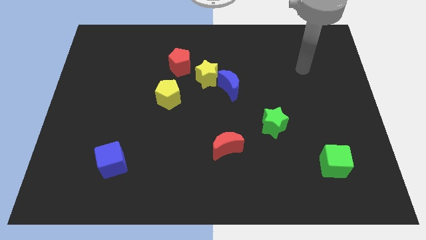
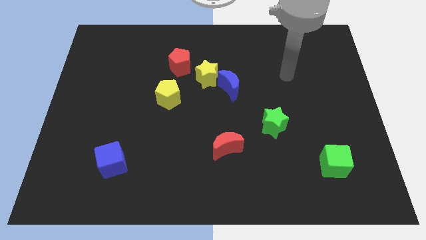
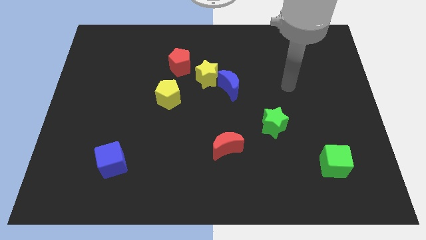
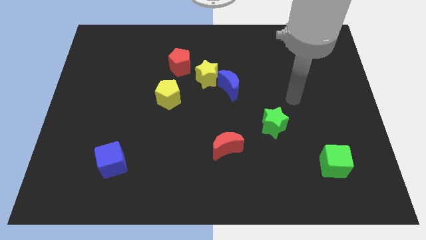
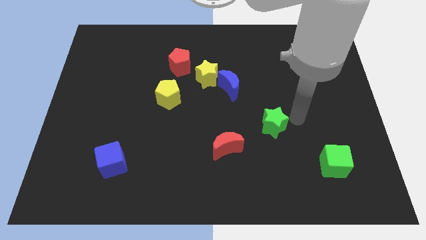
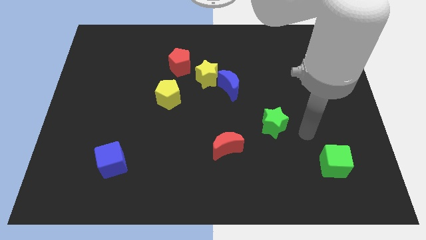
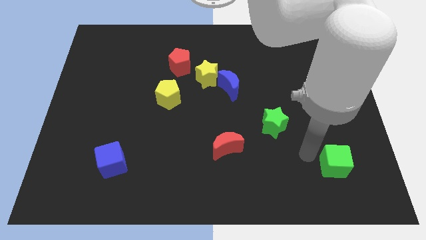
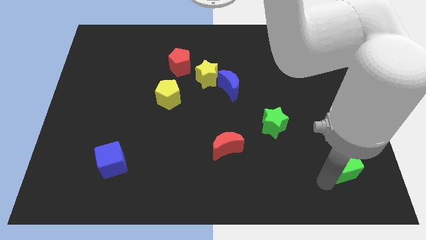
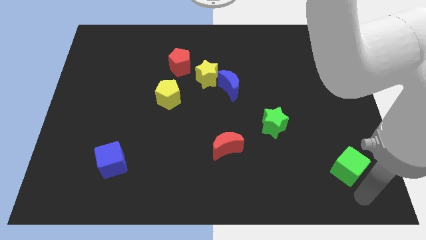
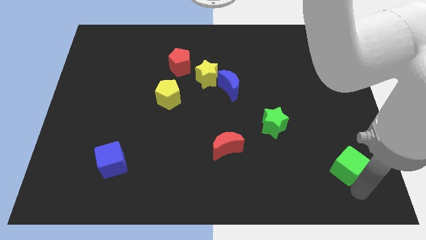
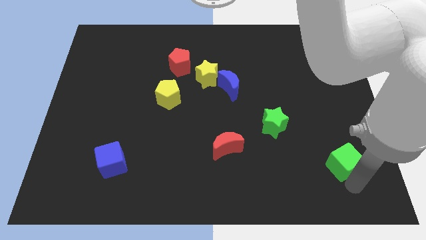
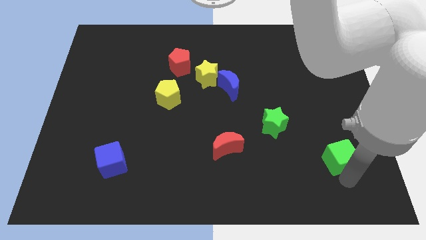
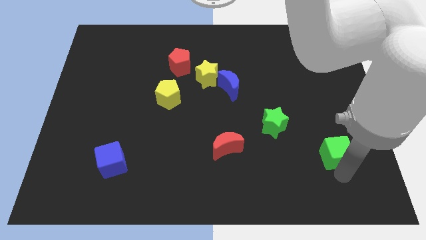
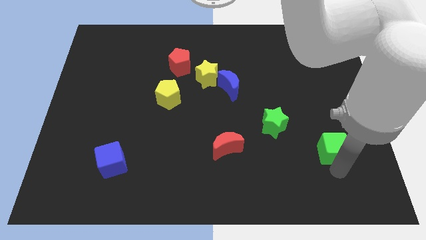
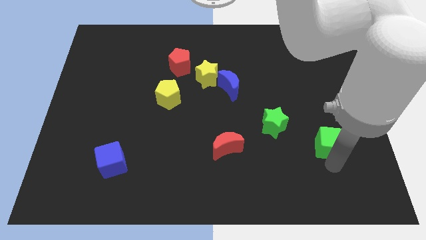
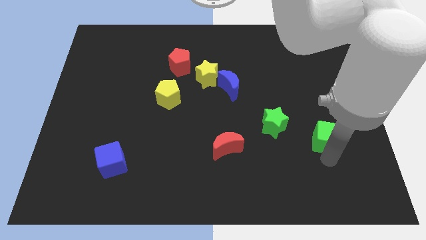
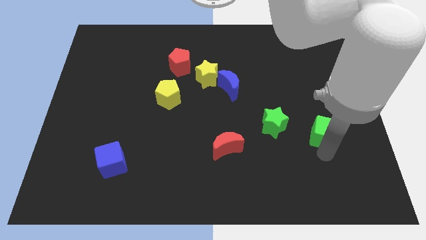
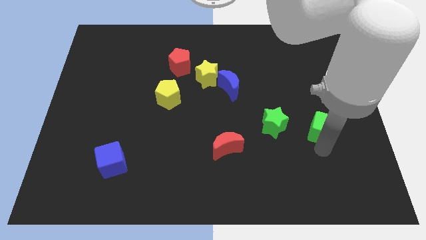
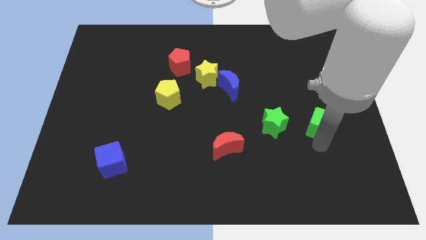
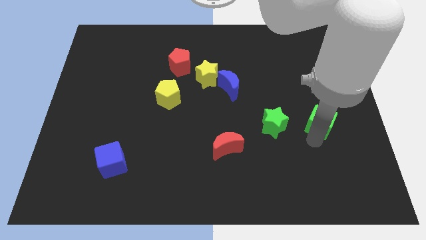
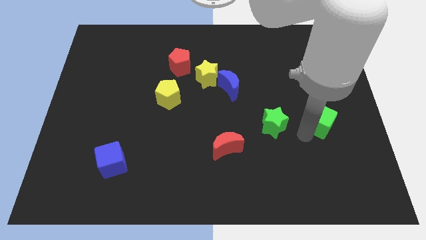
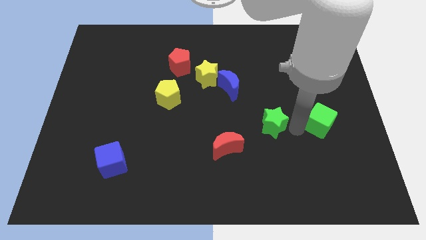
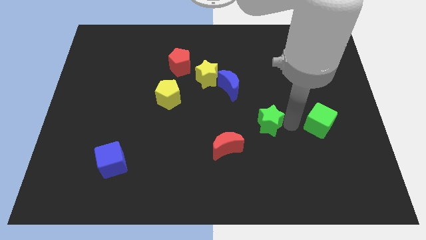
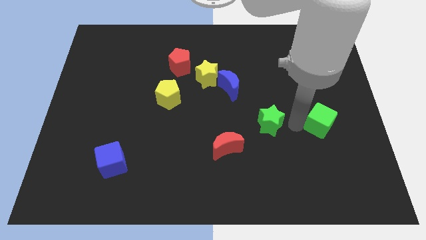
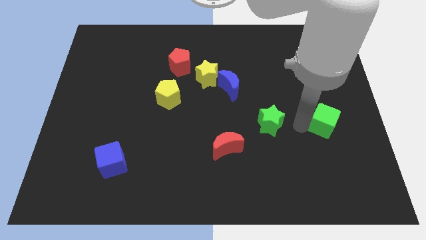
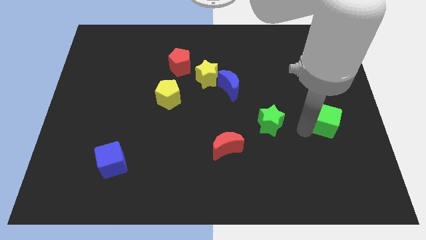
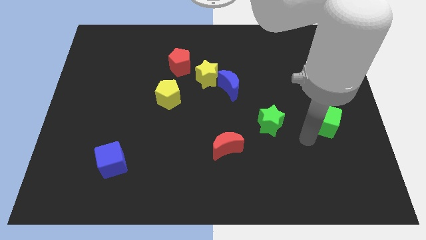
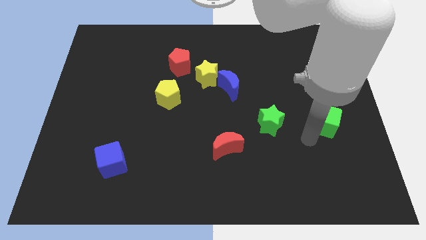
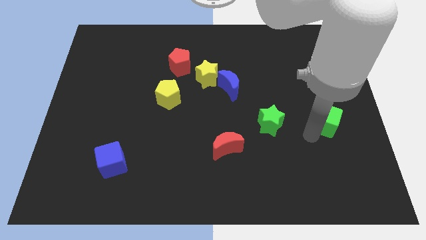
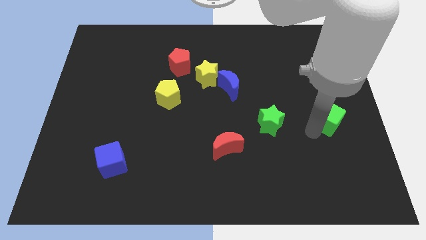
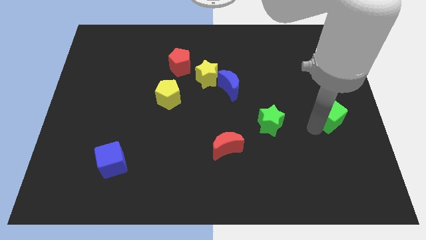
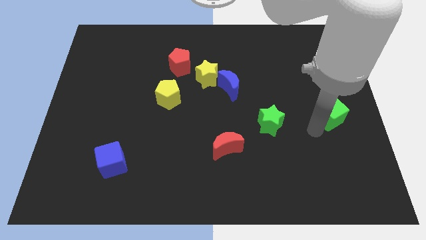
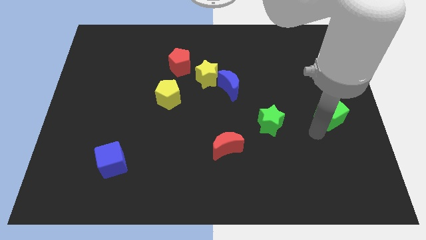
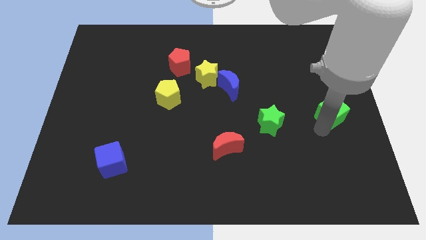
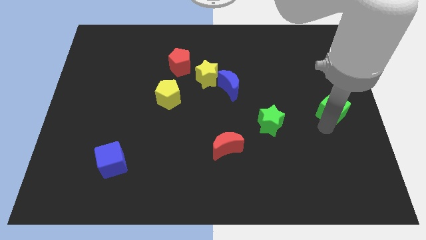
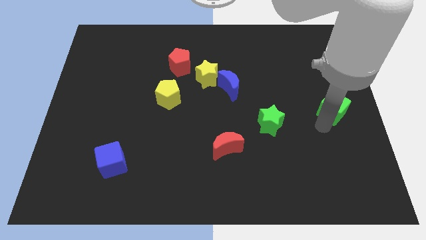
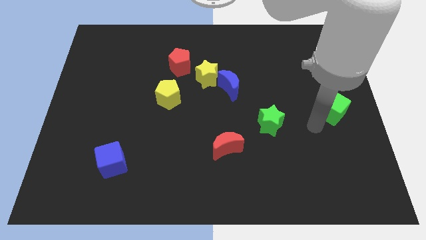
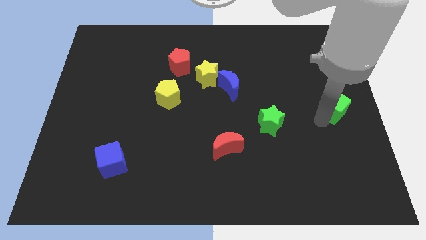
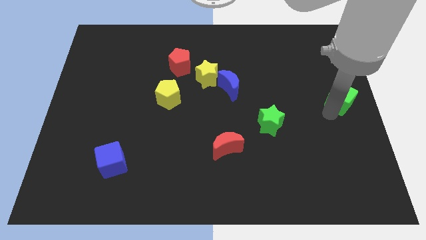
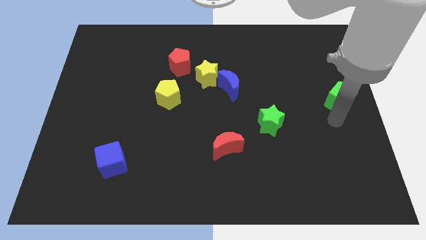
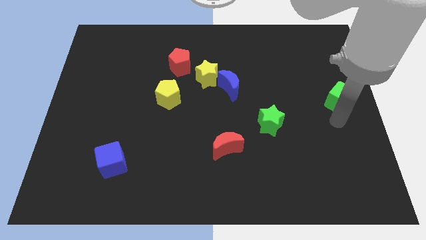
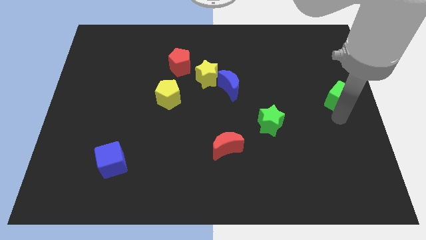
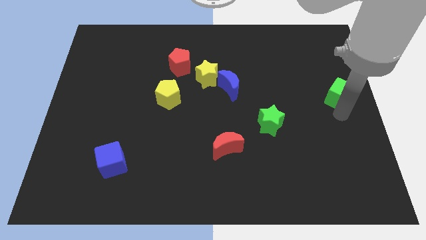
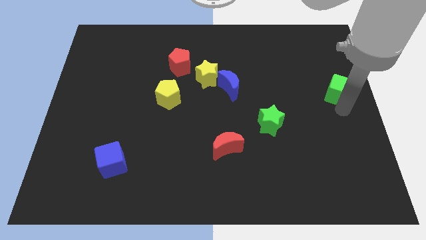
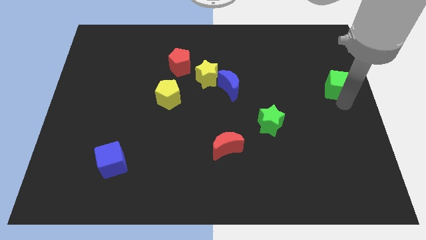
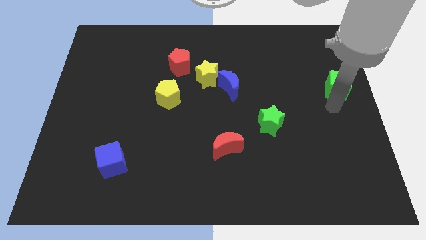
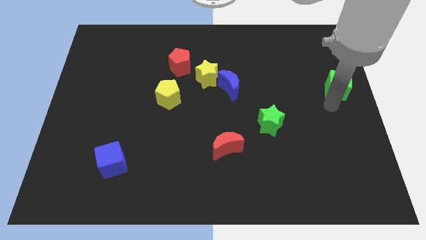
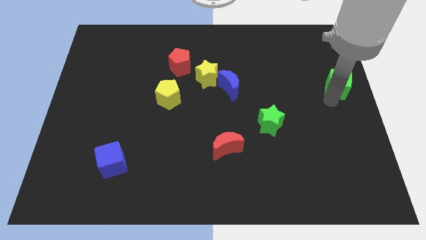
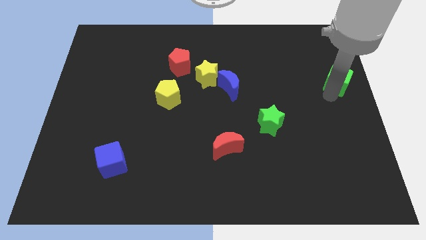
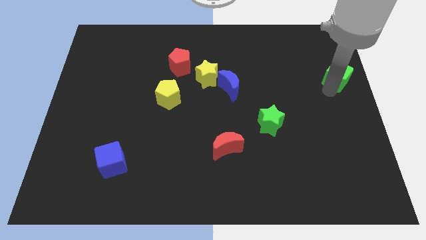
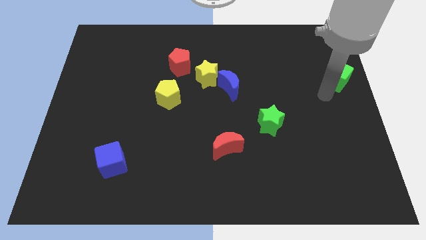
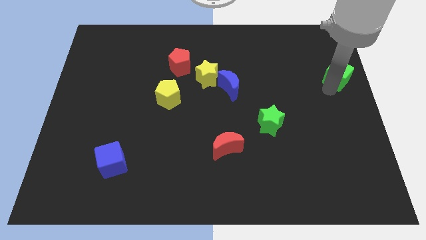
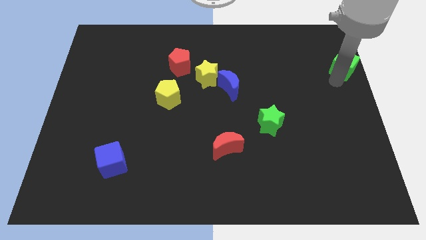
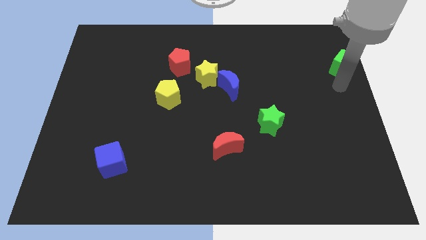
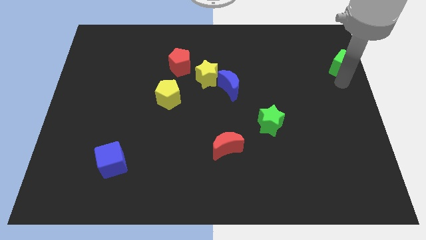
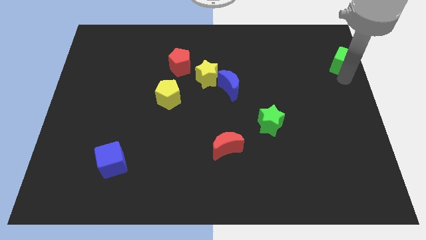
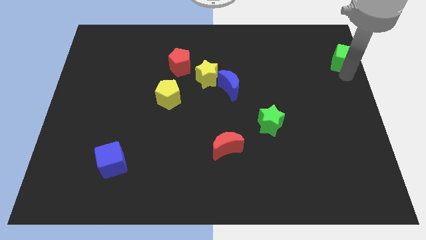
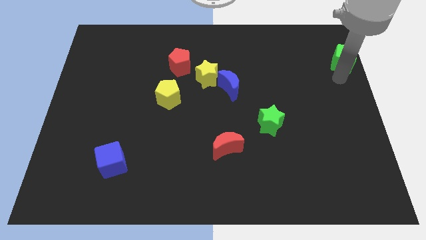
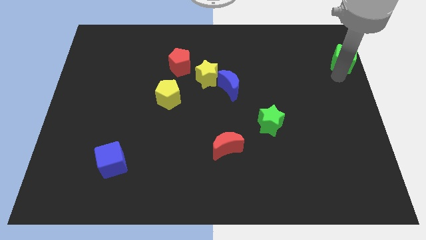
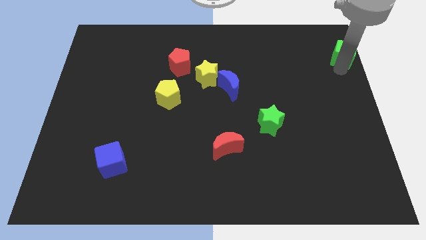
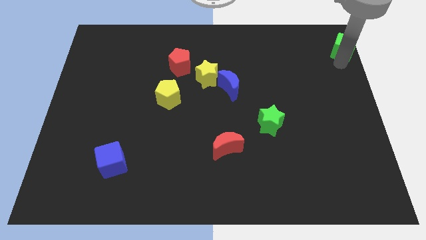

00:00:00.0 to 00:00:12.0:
slide the green cube to the upper right corner

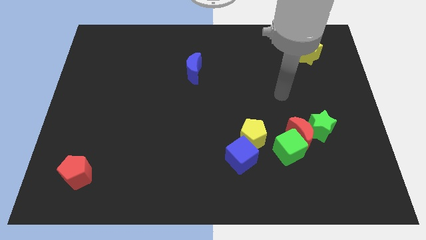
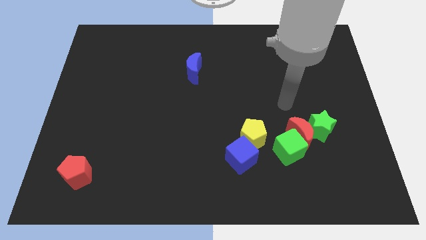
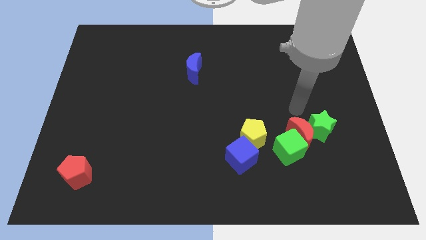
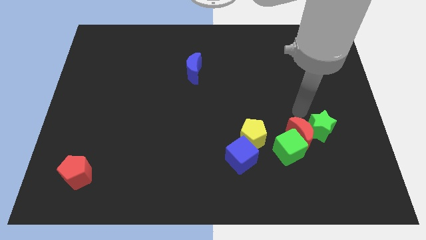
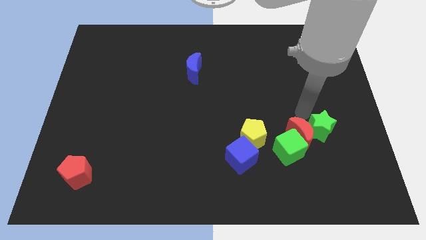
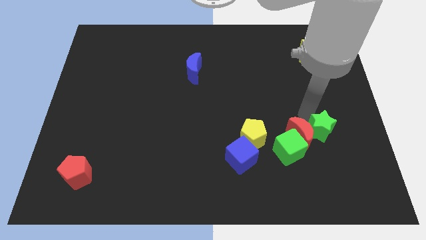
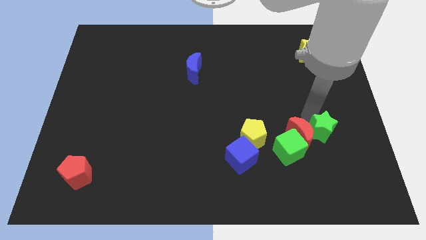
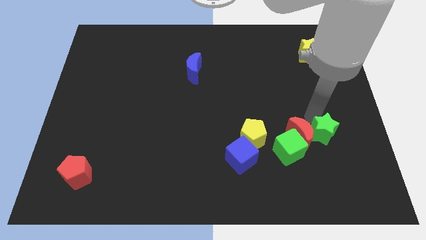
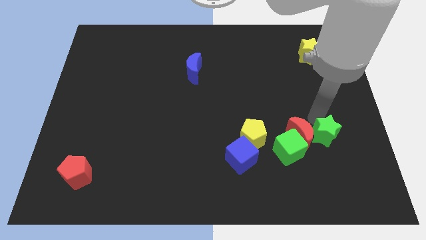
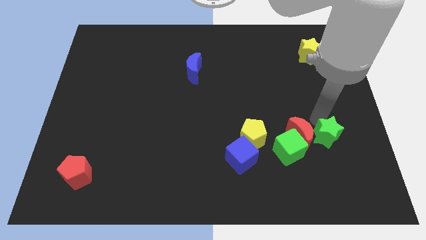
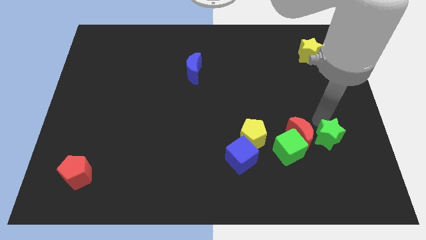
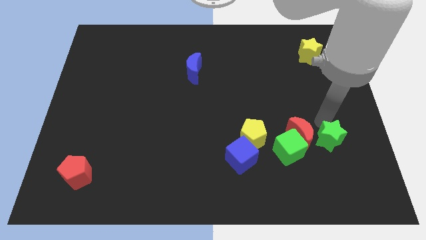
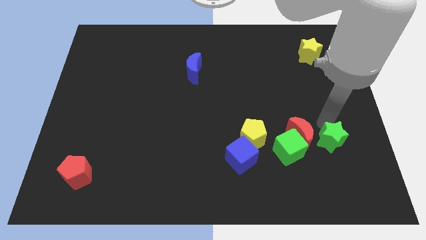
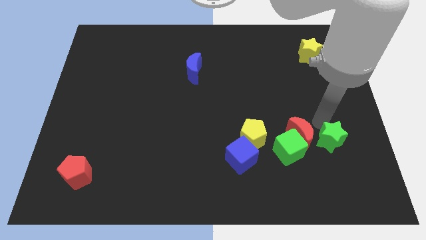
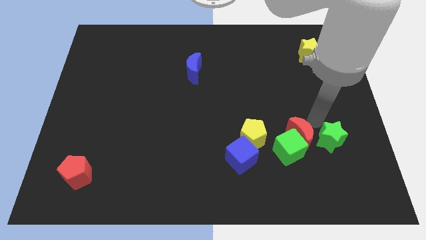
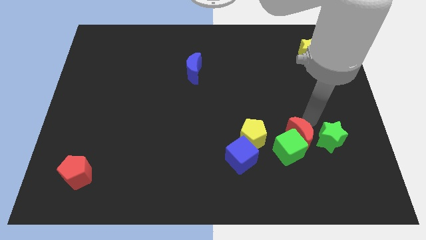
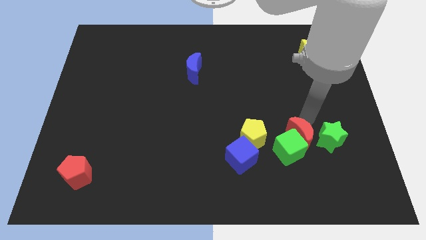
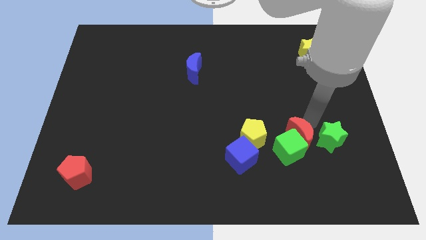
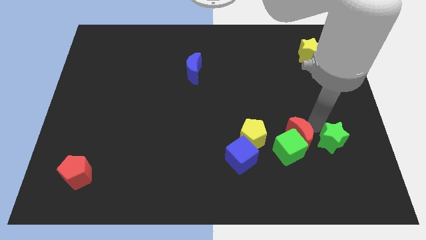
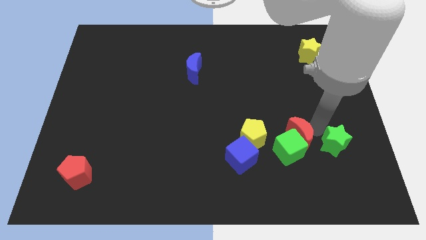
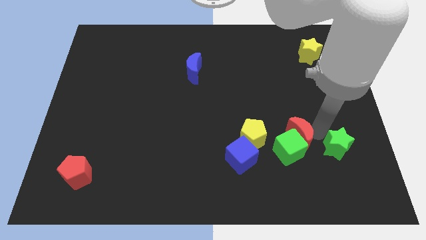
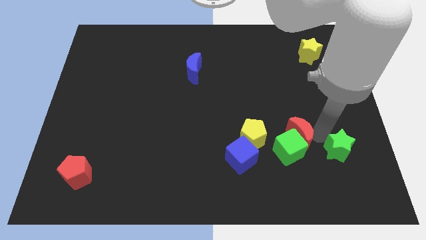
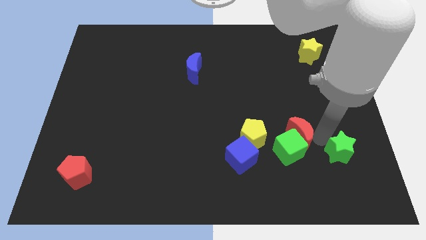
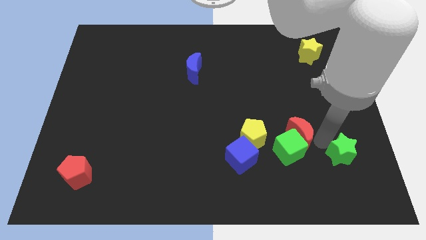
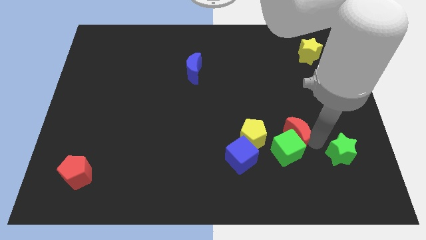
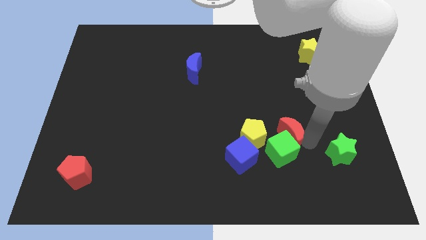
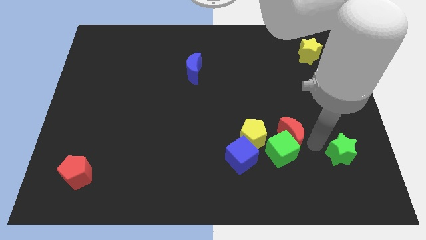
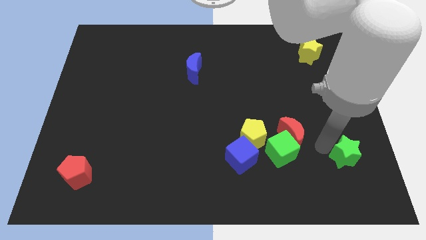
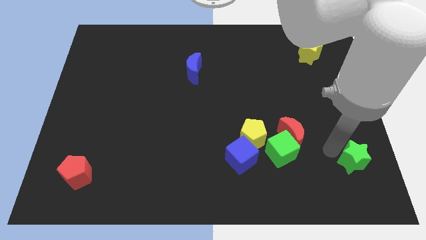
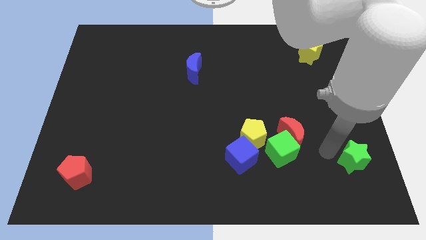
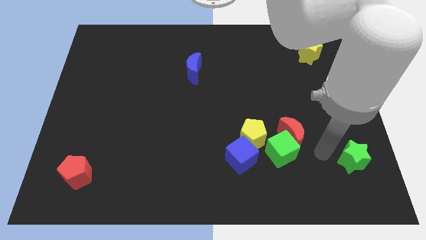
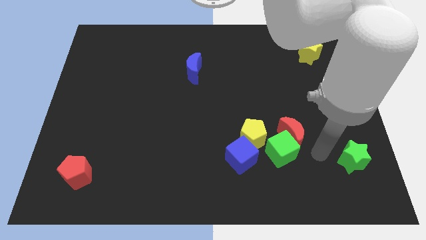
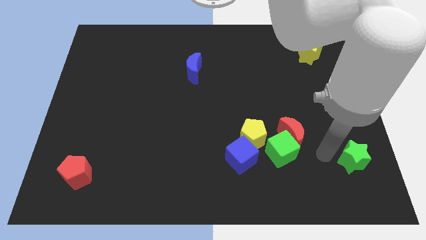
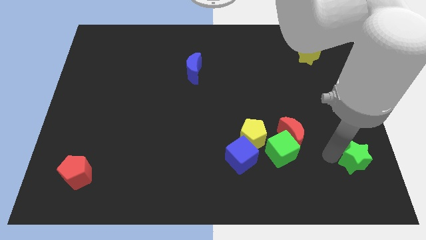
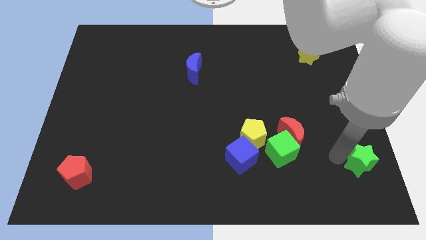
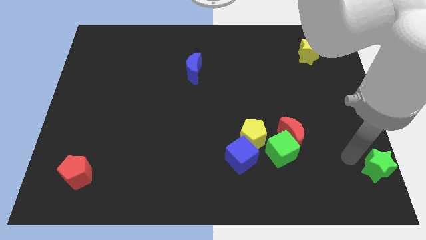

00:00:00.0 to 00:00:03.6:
slide the green star to the bottom right corner
